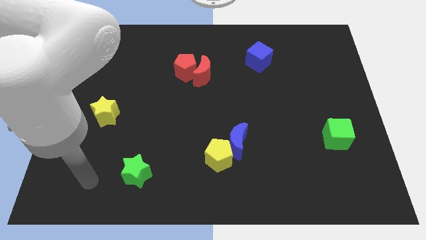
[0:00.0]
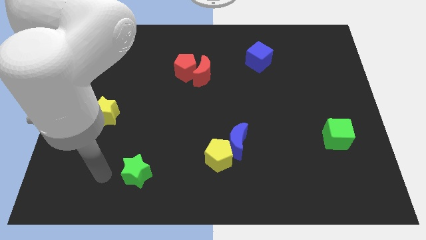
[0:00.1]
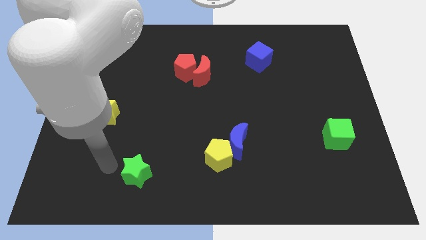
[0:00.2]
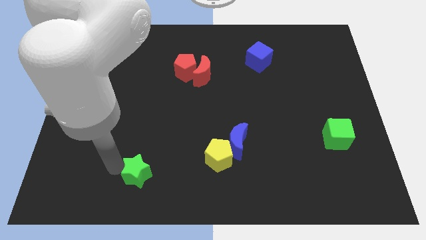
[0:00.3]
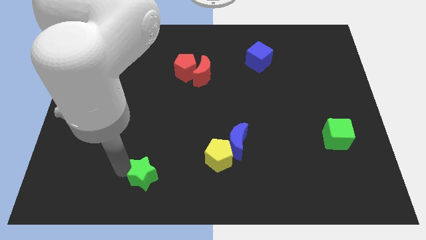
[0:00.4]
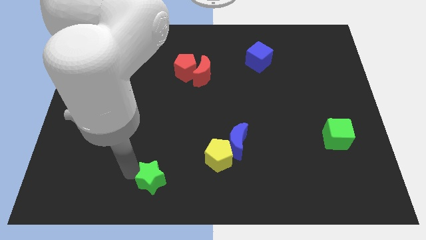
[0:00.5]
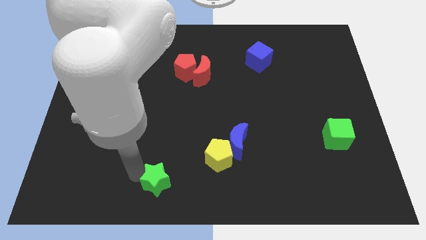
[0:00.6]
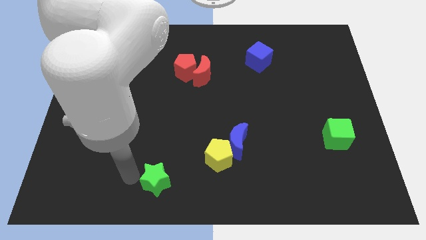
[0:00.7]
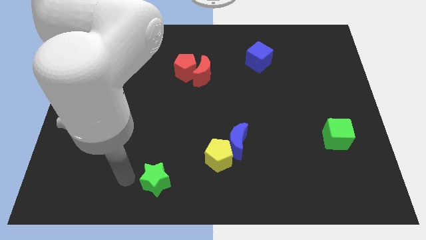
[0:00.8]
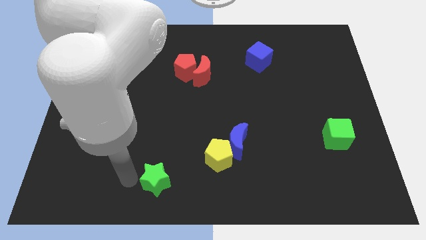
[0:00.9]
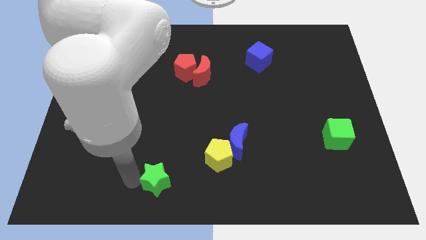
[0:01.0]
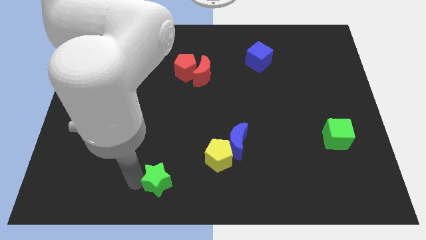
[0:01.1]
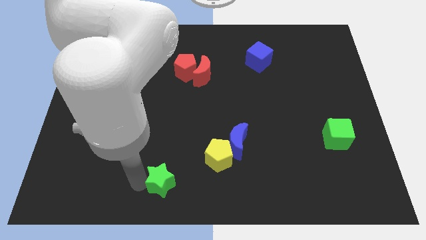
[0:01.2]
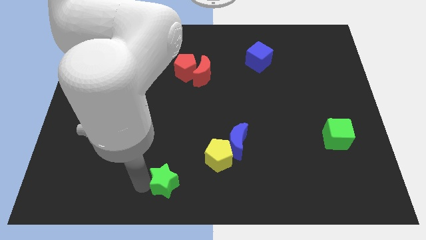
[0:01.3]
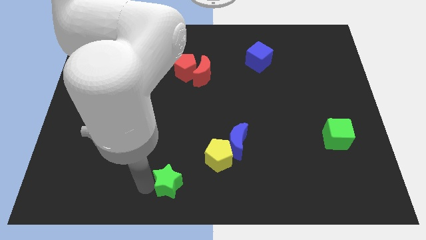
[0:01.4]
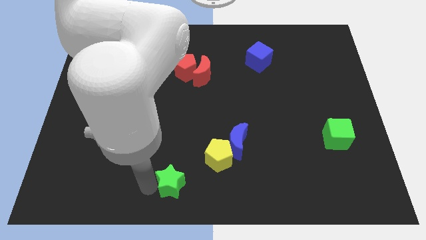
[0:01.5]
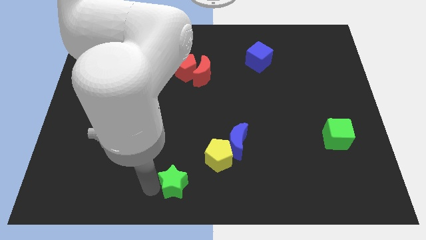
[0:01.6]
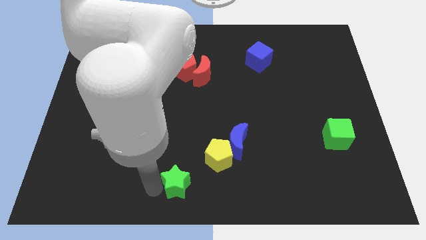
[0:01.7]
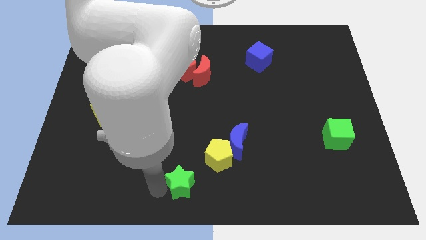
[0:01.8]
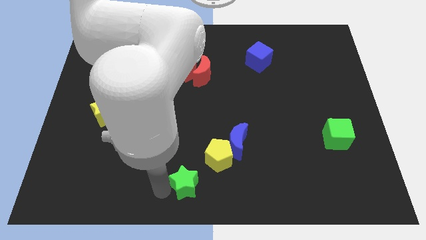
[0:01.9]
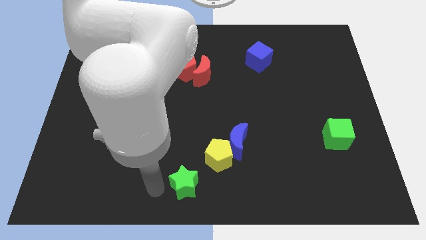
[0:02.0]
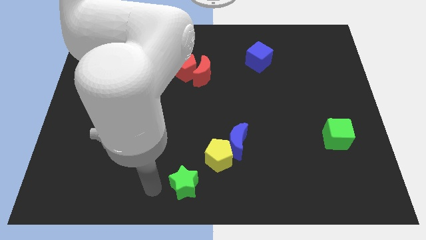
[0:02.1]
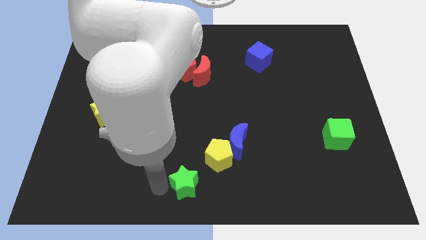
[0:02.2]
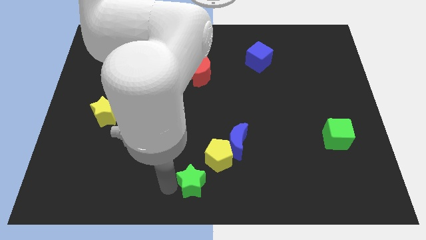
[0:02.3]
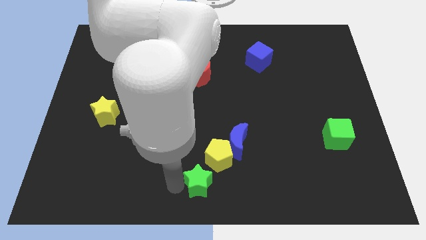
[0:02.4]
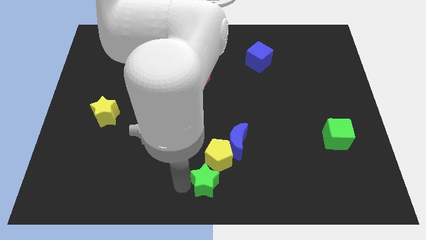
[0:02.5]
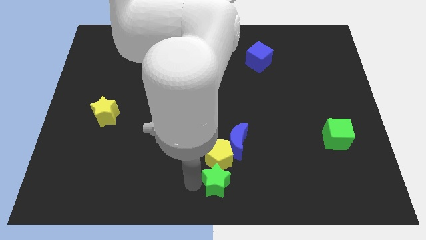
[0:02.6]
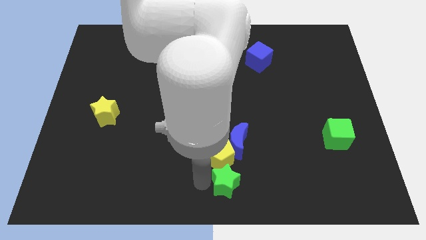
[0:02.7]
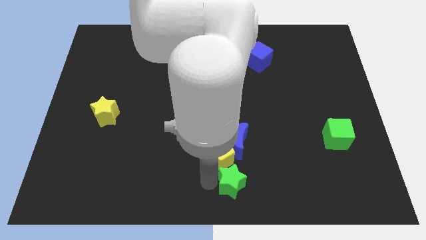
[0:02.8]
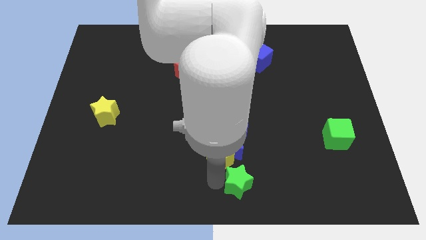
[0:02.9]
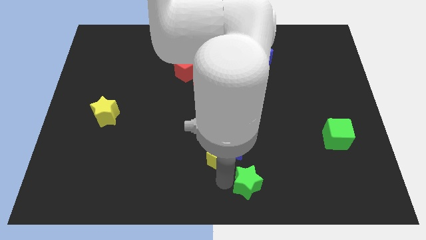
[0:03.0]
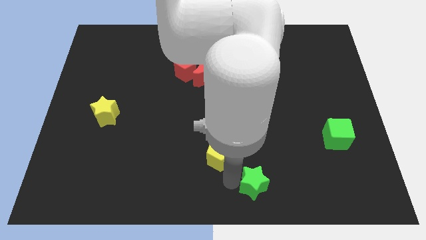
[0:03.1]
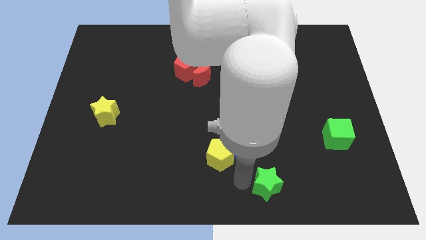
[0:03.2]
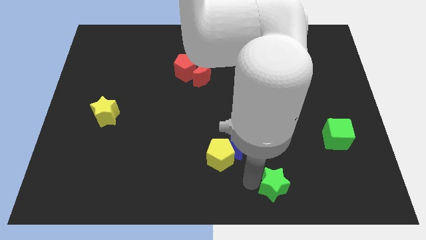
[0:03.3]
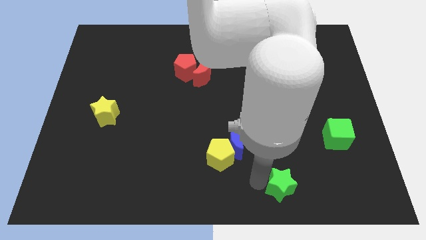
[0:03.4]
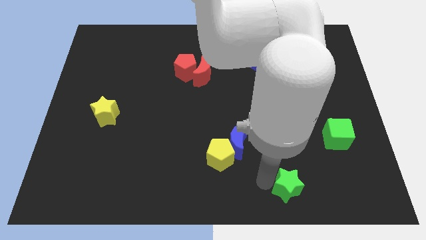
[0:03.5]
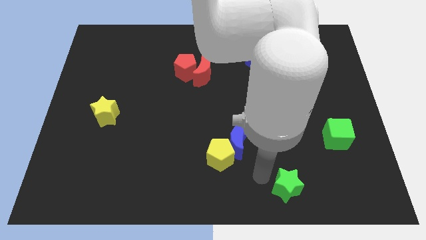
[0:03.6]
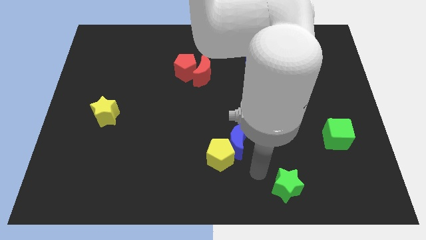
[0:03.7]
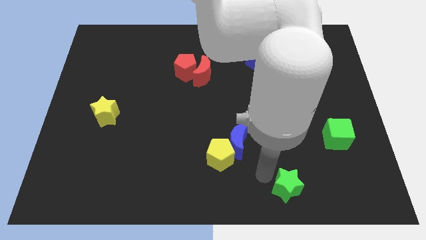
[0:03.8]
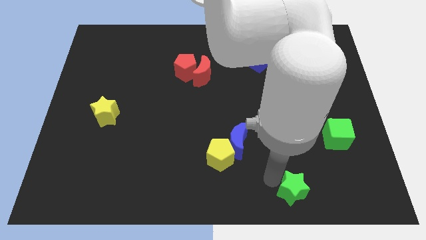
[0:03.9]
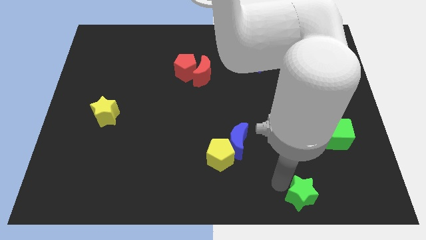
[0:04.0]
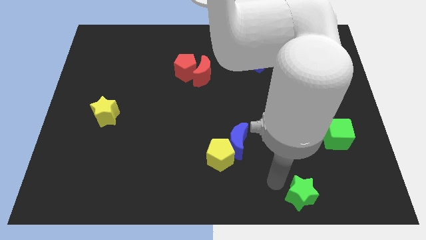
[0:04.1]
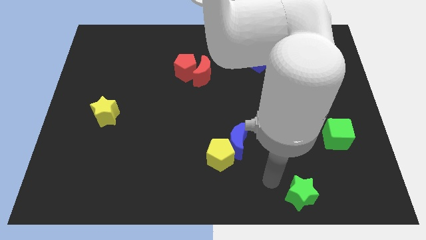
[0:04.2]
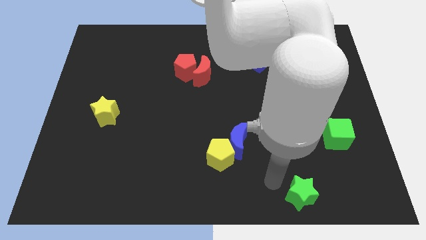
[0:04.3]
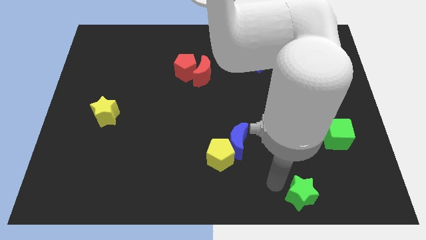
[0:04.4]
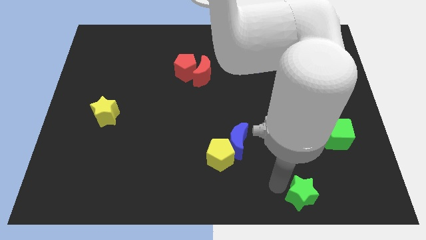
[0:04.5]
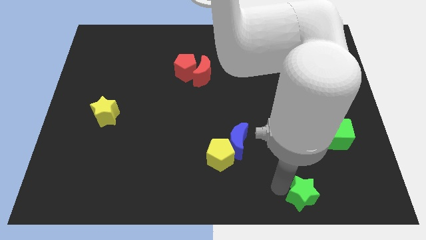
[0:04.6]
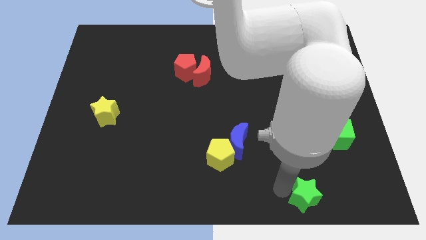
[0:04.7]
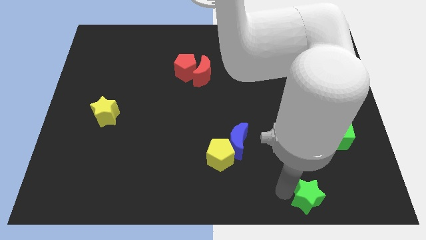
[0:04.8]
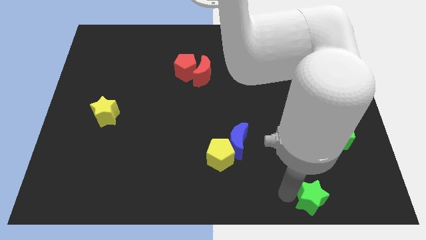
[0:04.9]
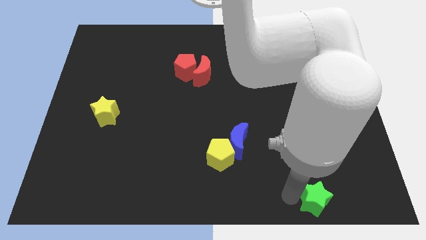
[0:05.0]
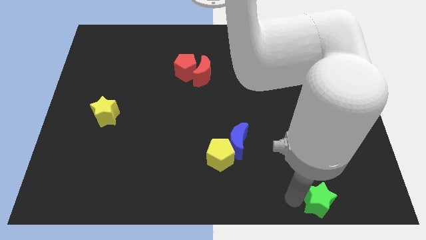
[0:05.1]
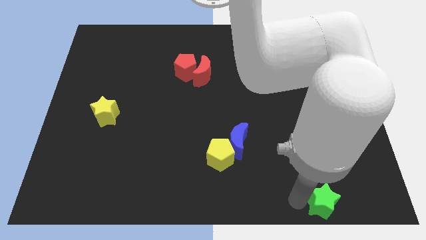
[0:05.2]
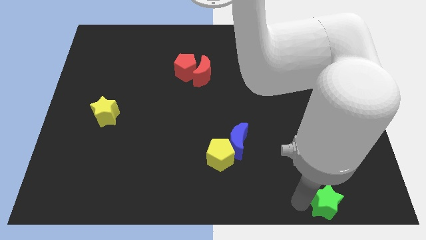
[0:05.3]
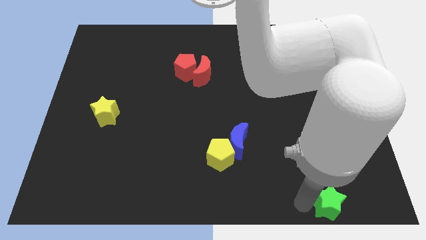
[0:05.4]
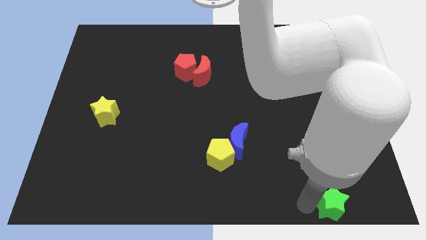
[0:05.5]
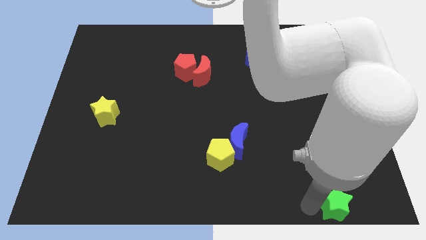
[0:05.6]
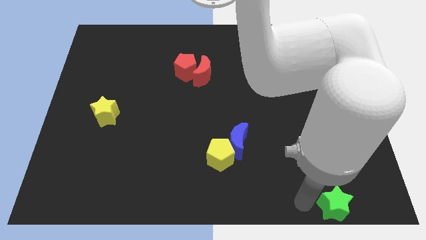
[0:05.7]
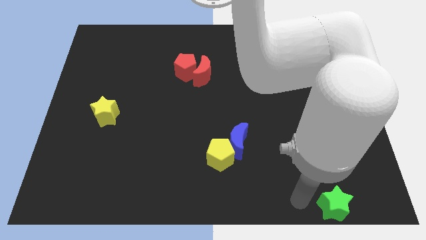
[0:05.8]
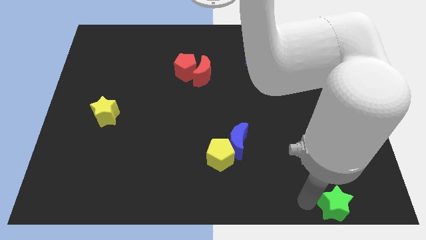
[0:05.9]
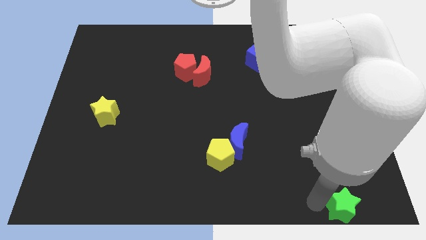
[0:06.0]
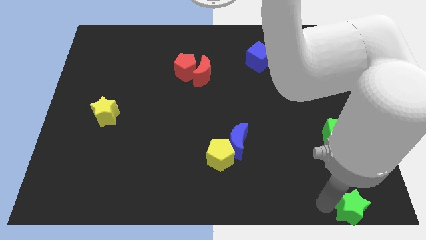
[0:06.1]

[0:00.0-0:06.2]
move the green star to the bottom right corner

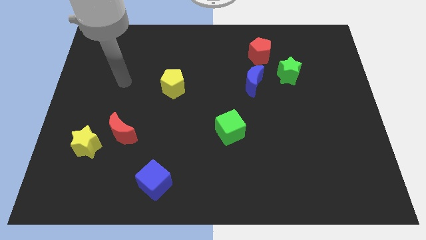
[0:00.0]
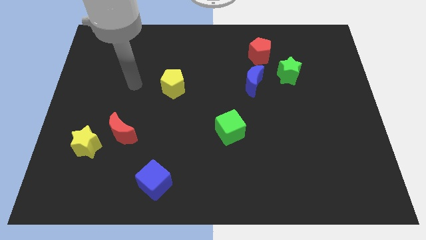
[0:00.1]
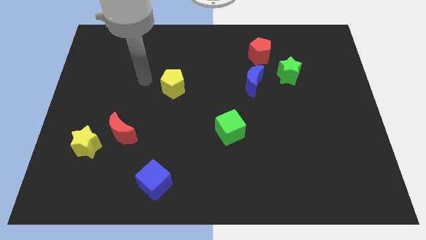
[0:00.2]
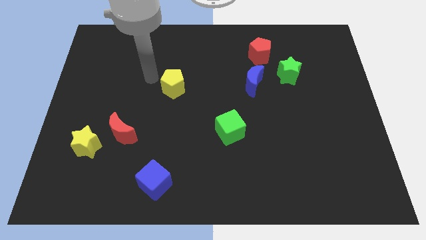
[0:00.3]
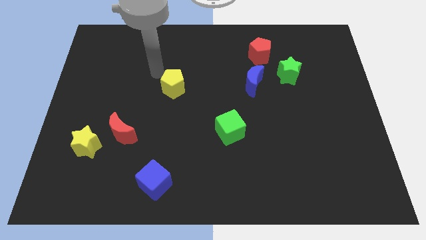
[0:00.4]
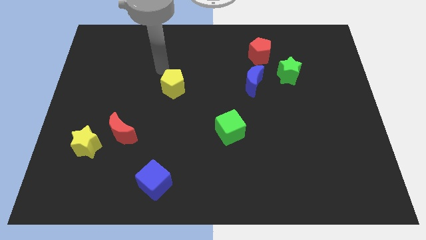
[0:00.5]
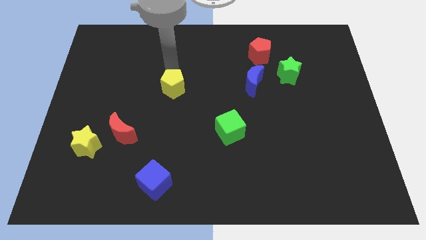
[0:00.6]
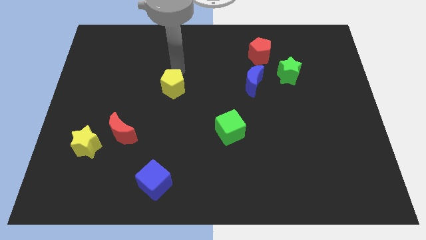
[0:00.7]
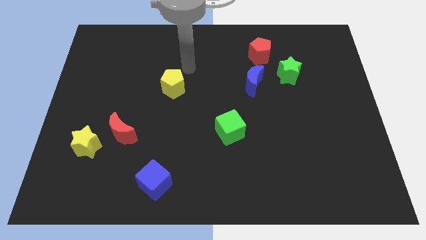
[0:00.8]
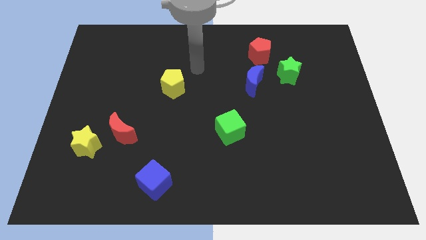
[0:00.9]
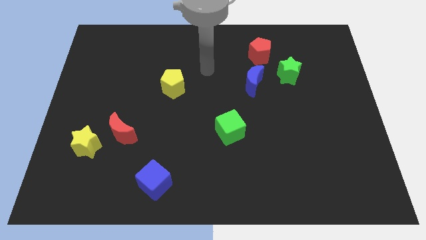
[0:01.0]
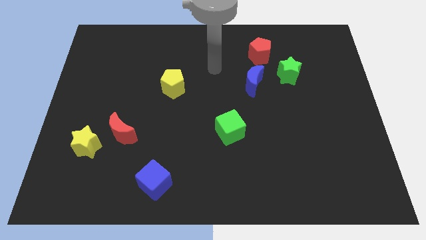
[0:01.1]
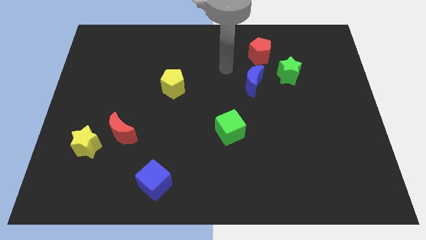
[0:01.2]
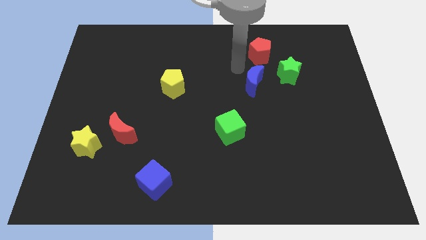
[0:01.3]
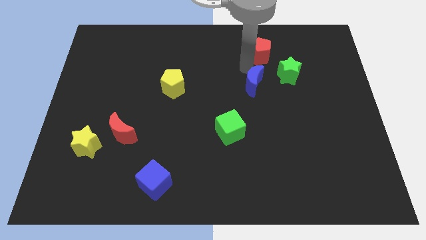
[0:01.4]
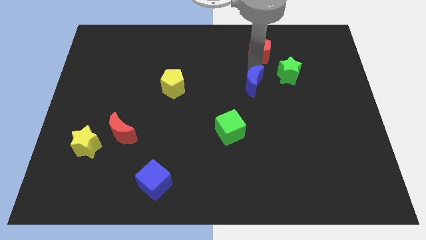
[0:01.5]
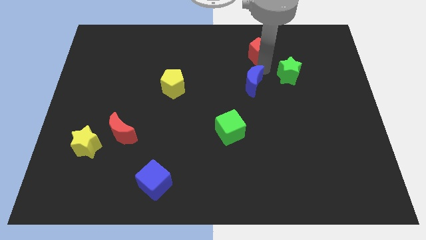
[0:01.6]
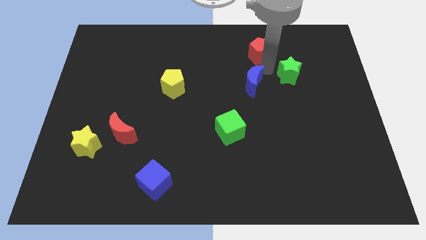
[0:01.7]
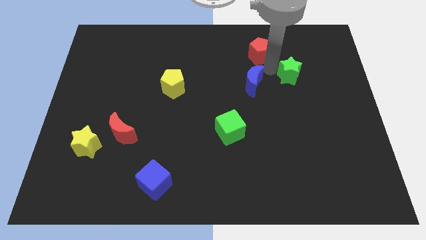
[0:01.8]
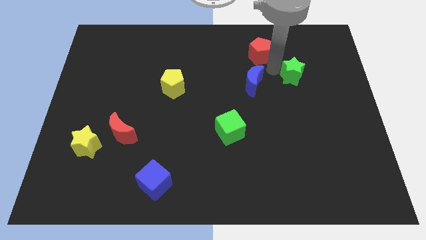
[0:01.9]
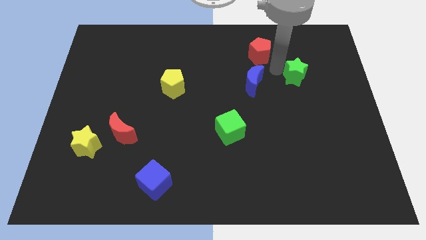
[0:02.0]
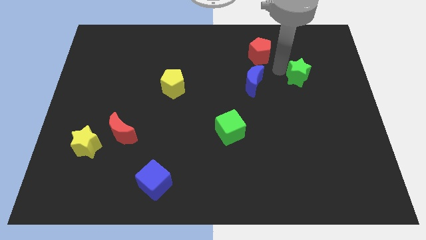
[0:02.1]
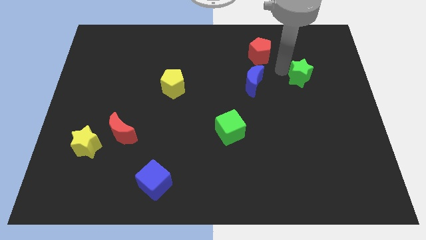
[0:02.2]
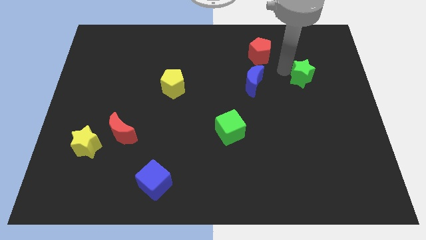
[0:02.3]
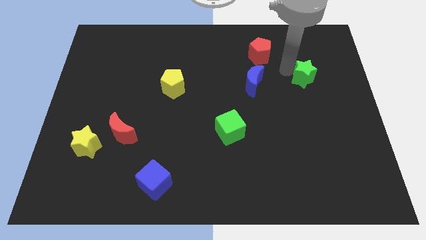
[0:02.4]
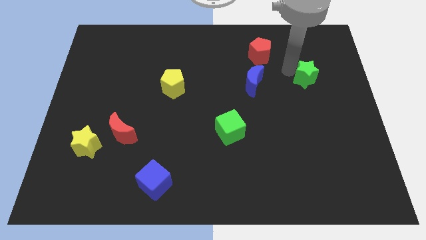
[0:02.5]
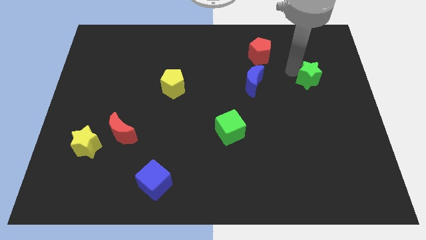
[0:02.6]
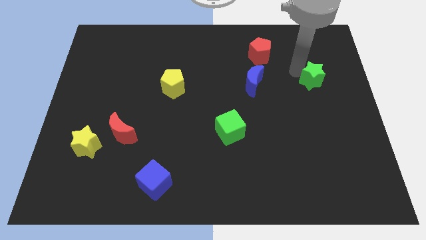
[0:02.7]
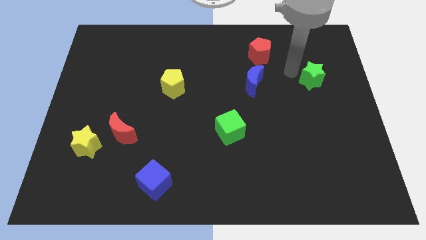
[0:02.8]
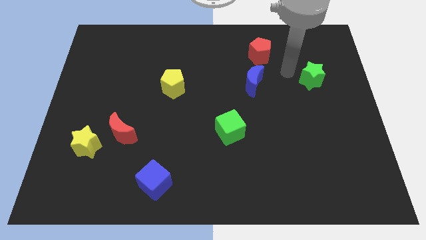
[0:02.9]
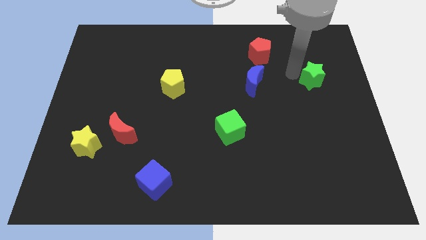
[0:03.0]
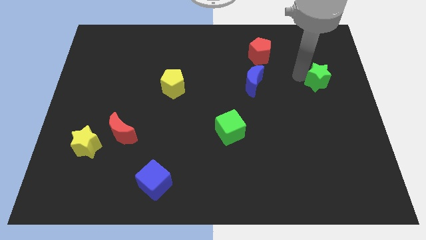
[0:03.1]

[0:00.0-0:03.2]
push the green star to the center right
